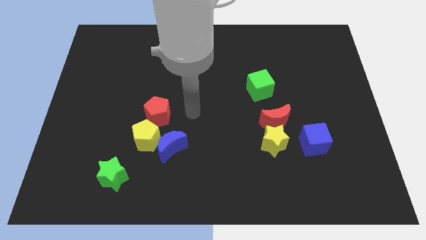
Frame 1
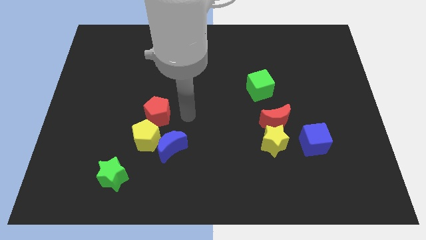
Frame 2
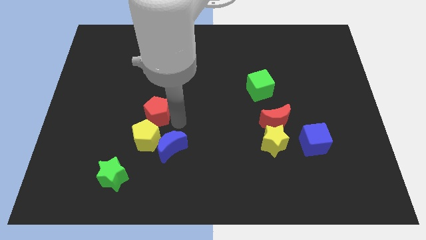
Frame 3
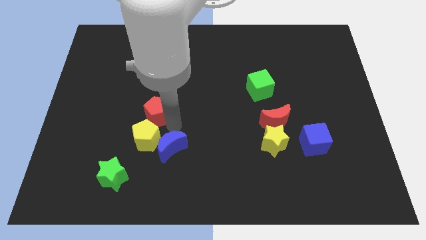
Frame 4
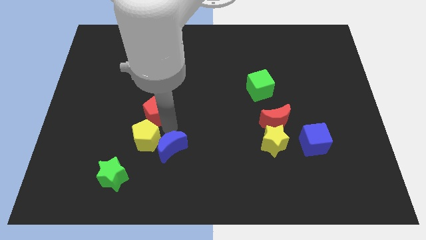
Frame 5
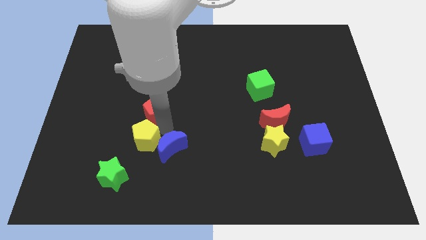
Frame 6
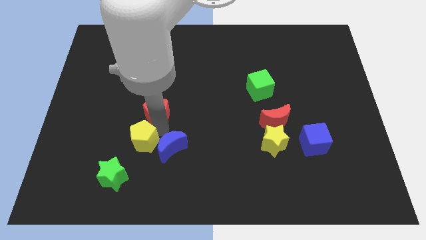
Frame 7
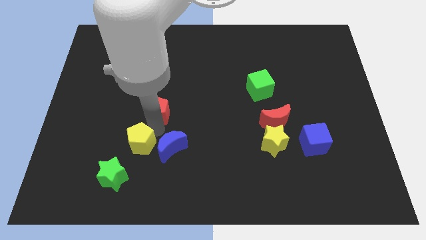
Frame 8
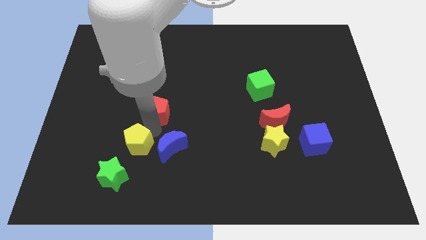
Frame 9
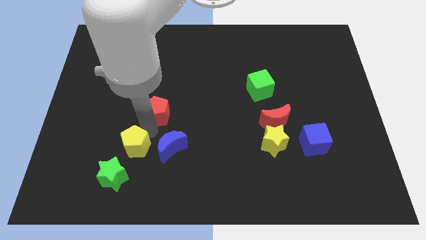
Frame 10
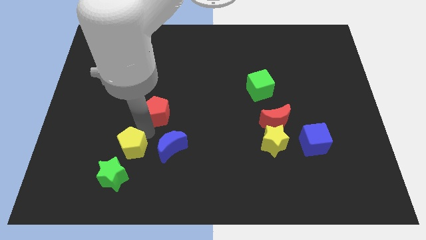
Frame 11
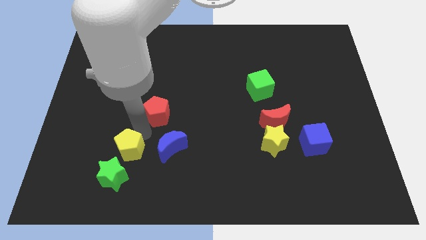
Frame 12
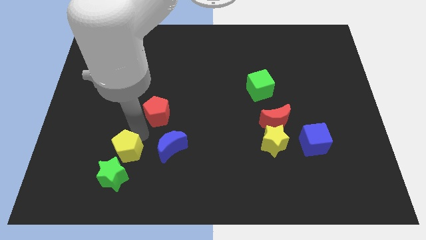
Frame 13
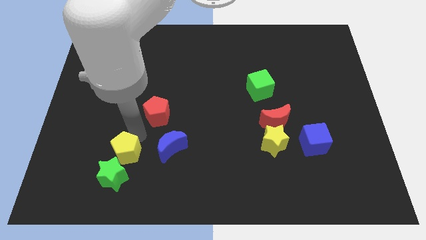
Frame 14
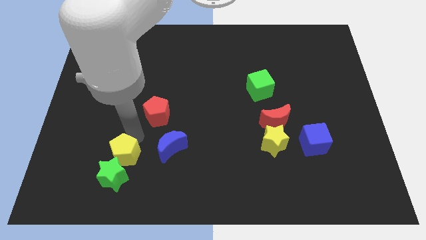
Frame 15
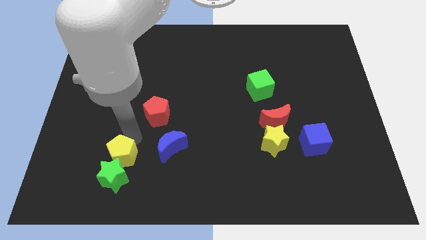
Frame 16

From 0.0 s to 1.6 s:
move the yellow pentagon away from the blue moon and red pentagon

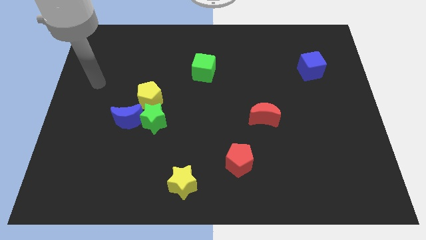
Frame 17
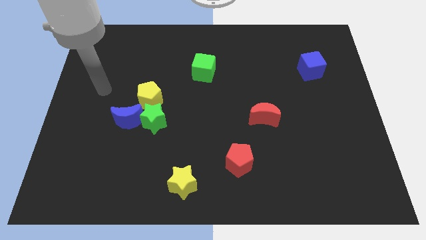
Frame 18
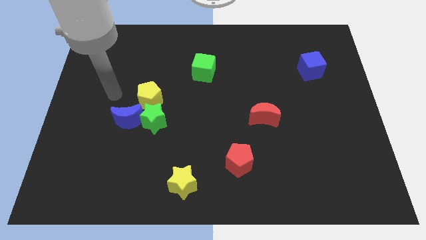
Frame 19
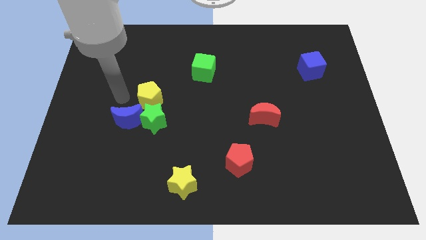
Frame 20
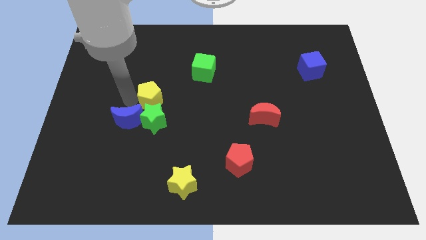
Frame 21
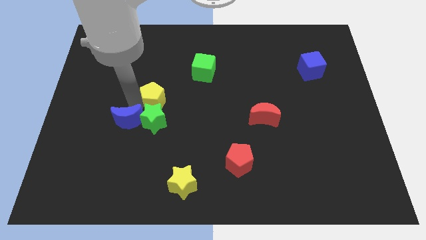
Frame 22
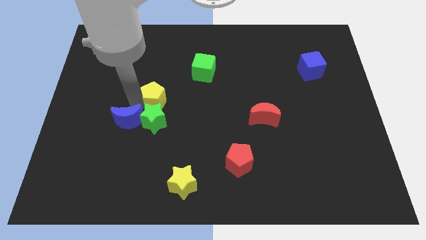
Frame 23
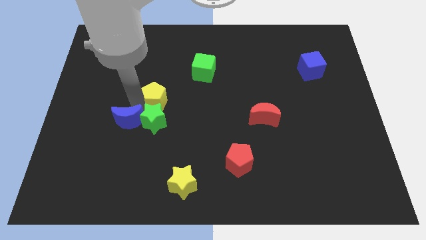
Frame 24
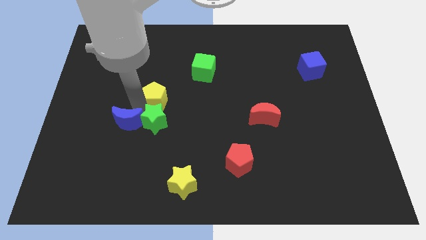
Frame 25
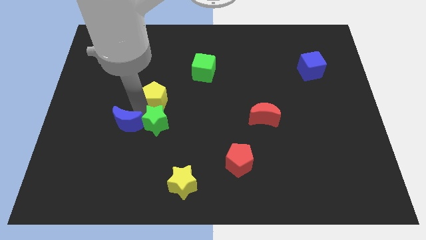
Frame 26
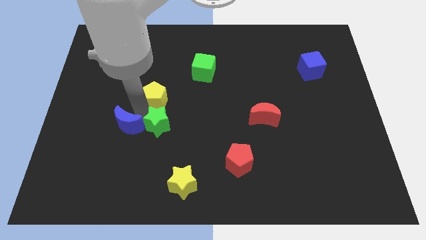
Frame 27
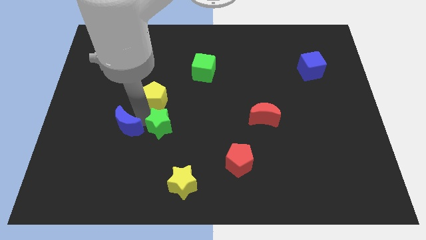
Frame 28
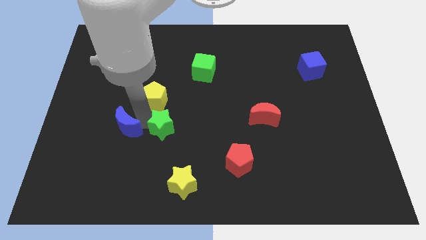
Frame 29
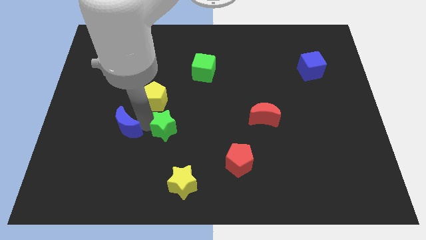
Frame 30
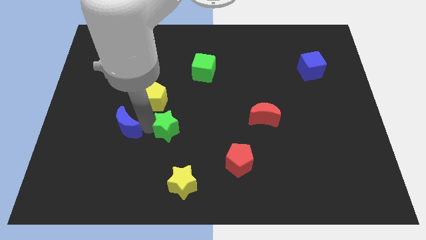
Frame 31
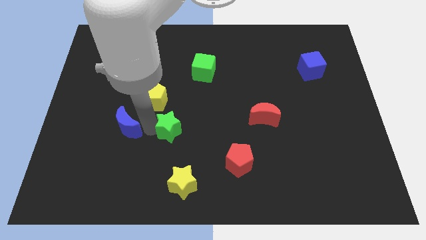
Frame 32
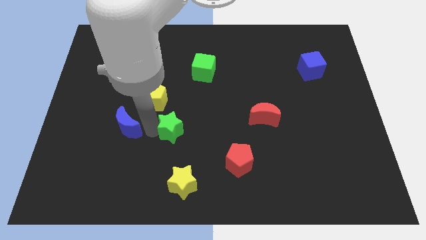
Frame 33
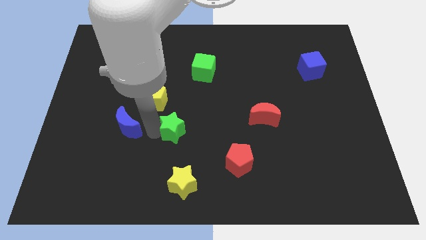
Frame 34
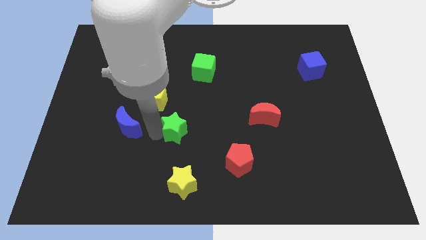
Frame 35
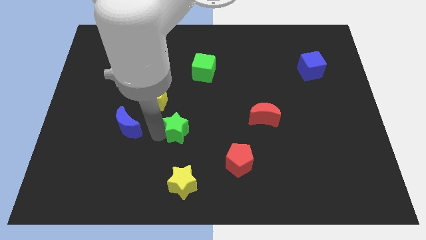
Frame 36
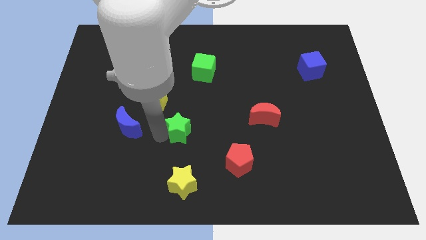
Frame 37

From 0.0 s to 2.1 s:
move the green star away from the blue moon and yellow pentagon

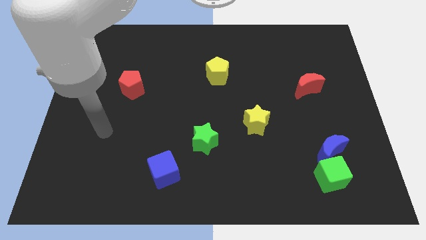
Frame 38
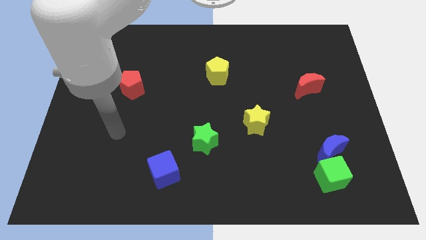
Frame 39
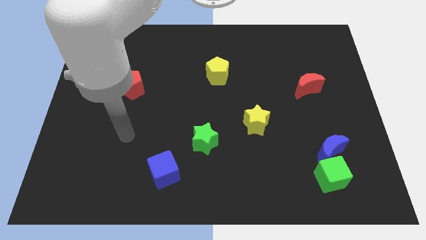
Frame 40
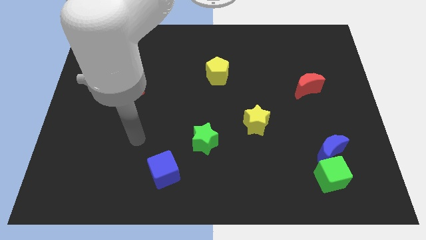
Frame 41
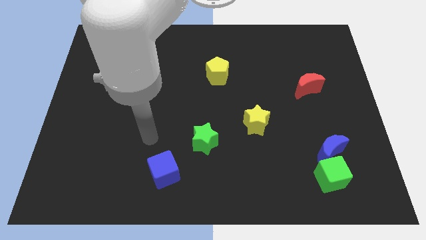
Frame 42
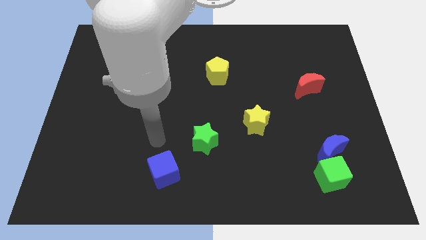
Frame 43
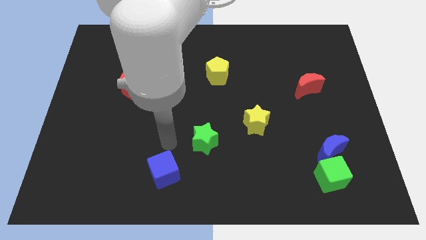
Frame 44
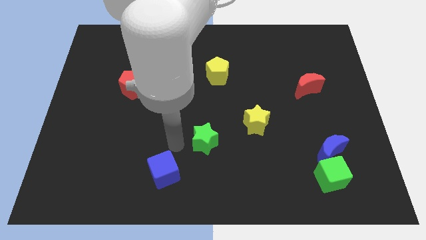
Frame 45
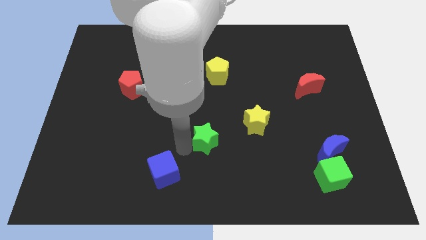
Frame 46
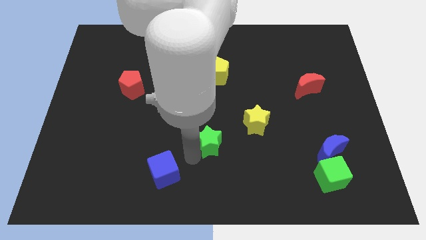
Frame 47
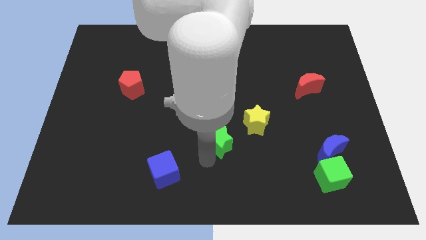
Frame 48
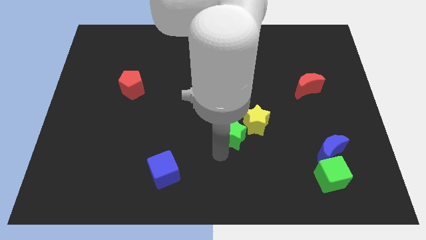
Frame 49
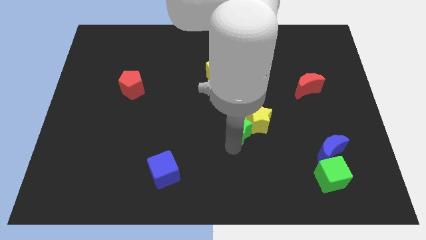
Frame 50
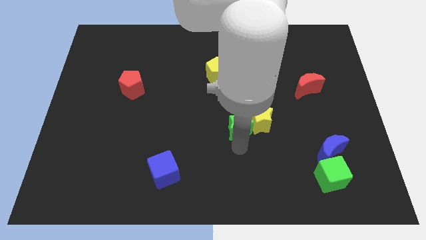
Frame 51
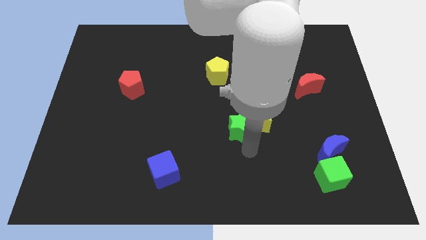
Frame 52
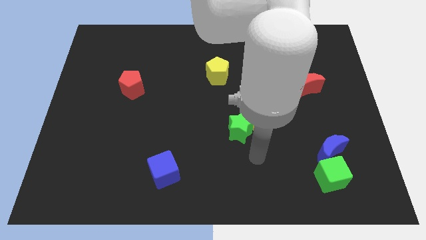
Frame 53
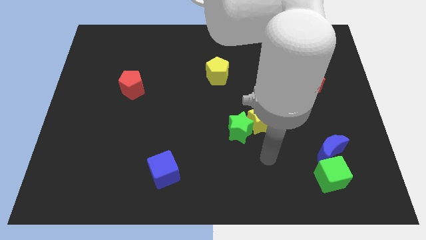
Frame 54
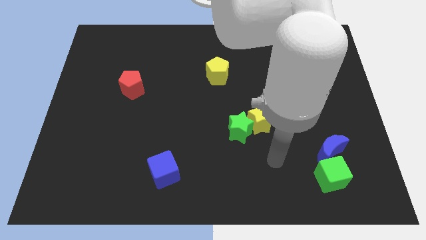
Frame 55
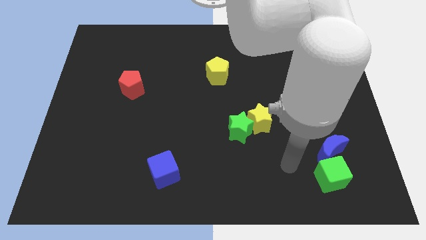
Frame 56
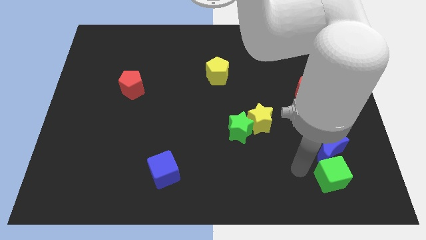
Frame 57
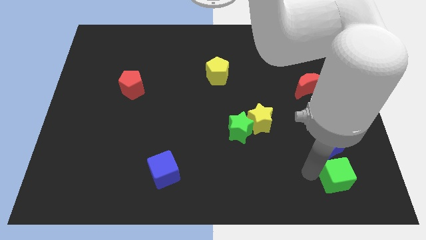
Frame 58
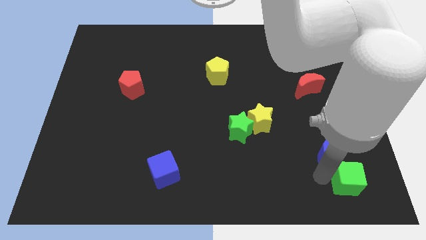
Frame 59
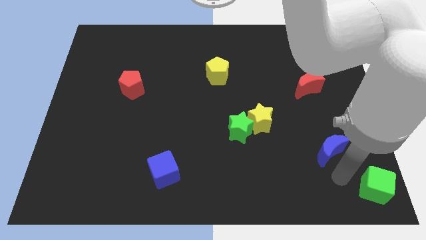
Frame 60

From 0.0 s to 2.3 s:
move the blue moon away from the green cube

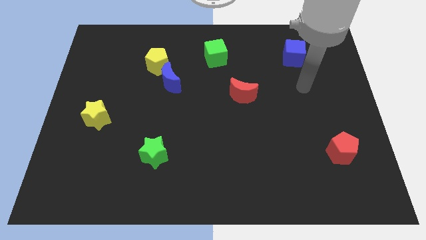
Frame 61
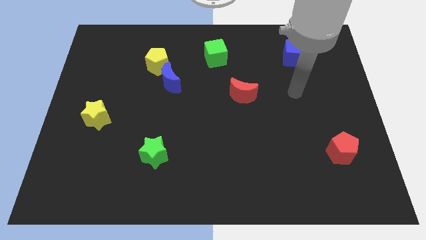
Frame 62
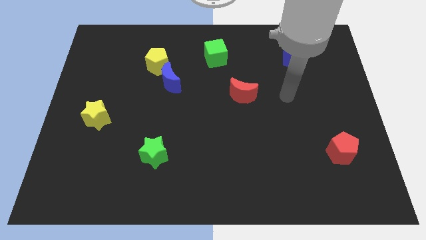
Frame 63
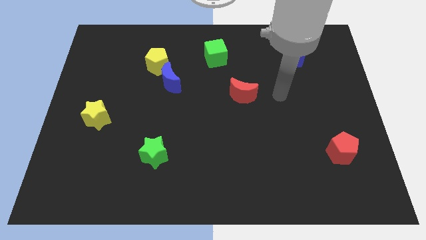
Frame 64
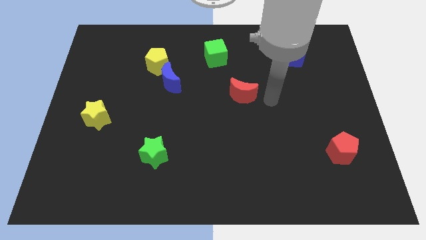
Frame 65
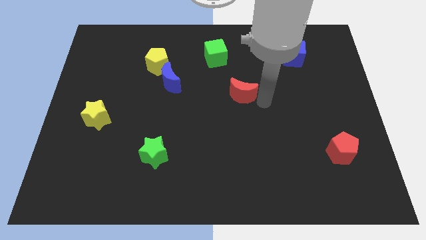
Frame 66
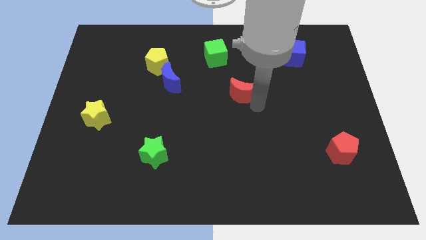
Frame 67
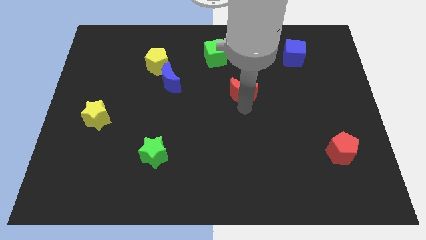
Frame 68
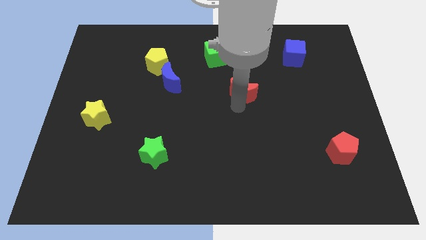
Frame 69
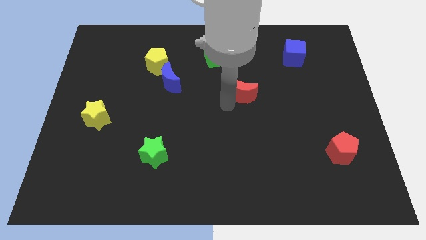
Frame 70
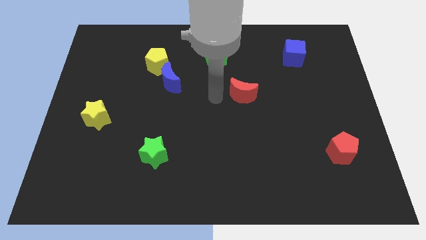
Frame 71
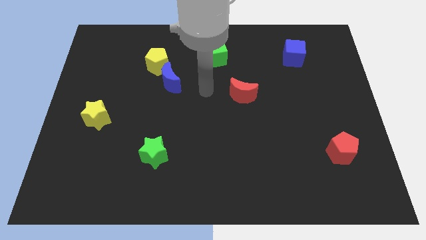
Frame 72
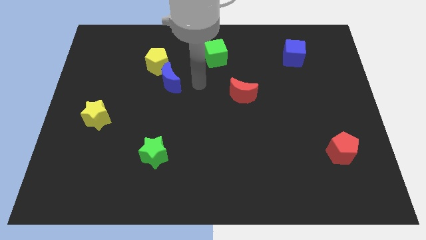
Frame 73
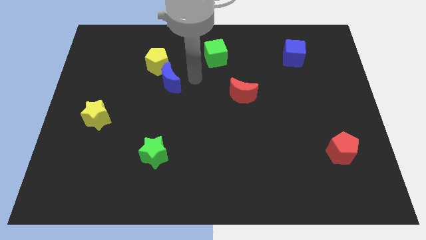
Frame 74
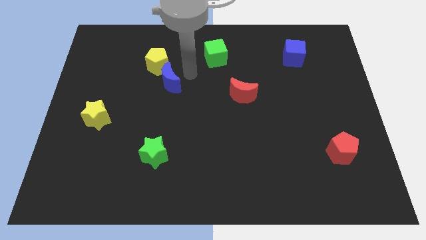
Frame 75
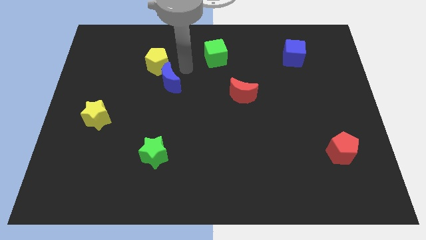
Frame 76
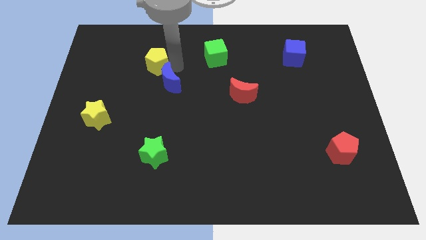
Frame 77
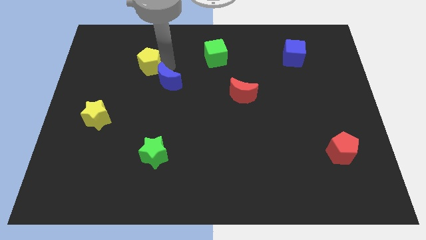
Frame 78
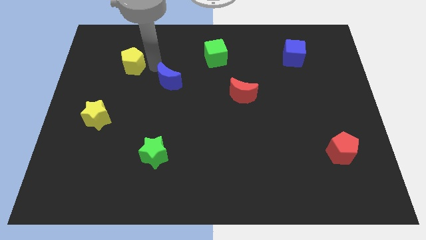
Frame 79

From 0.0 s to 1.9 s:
pull the blue moon apart from the yellow pentagon

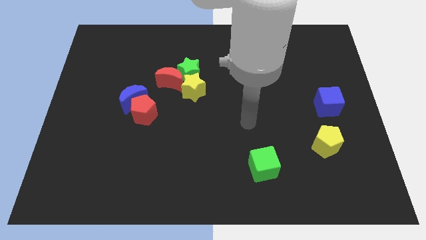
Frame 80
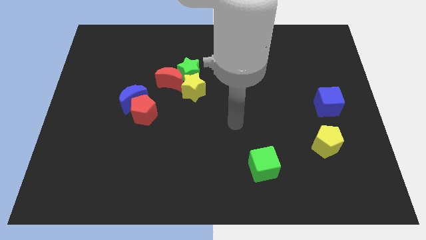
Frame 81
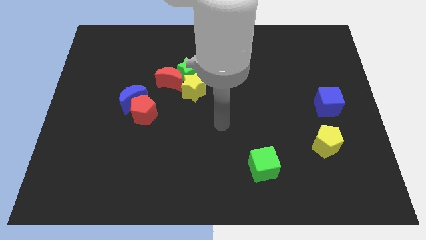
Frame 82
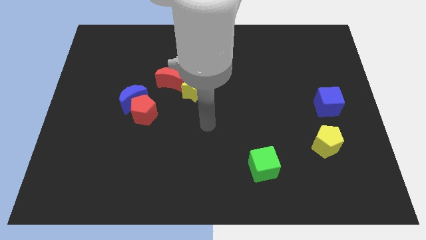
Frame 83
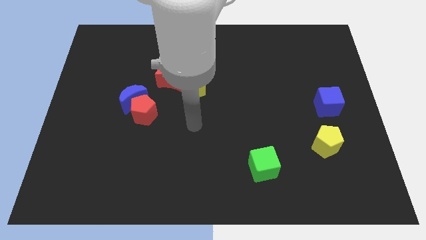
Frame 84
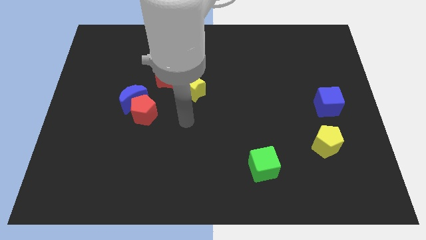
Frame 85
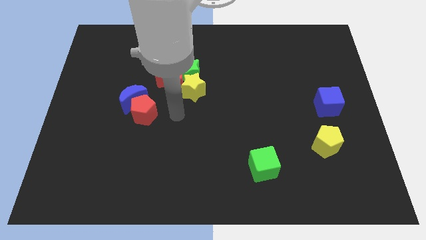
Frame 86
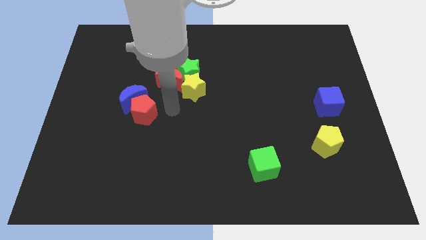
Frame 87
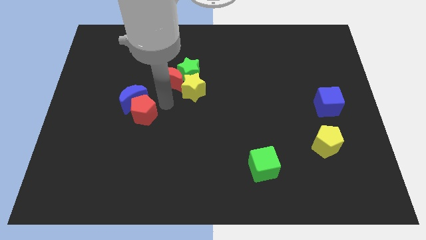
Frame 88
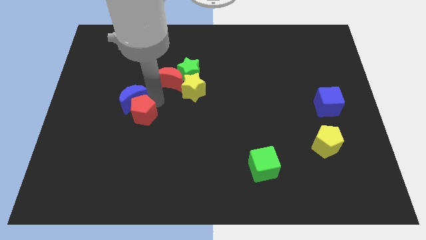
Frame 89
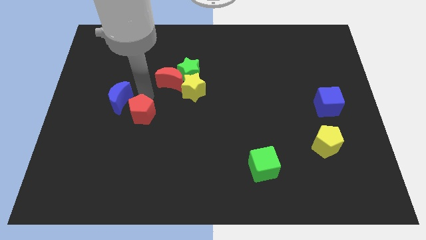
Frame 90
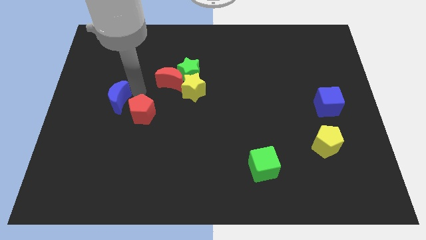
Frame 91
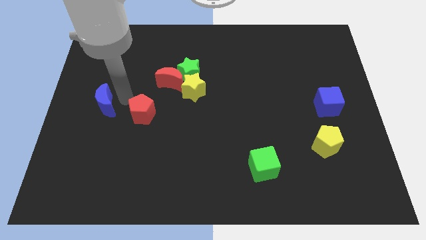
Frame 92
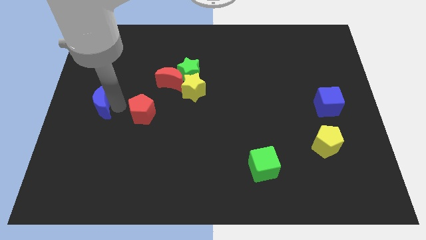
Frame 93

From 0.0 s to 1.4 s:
pull the red pentagon apart from the blue moon
